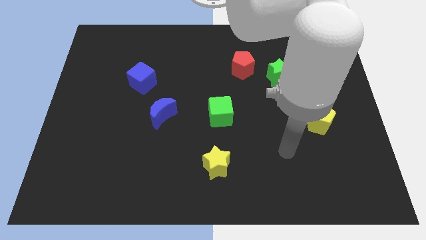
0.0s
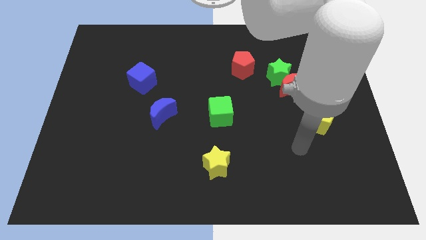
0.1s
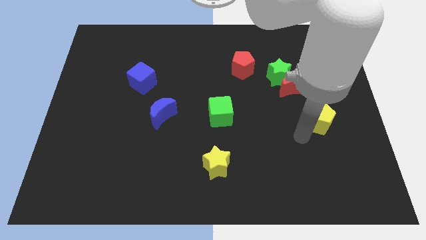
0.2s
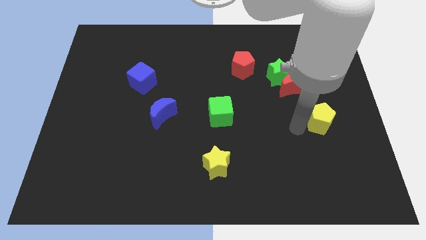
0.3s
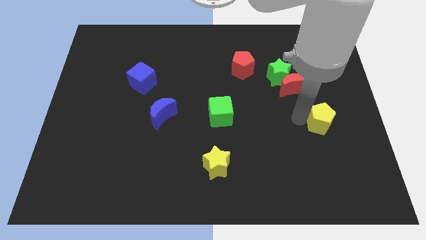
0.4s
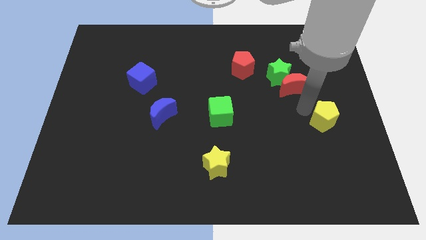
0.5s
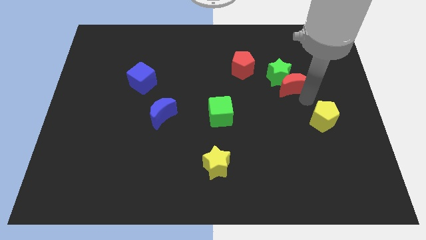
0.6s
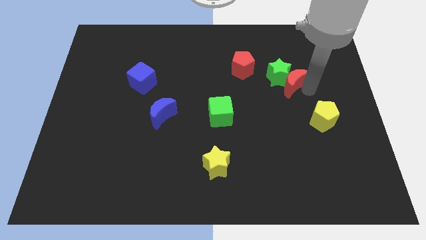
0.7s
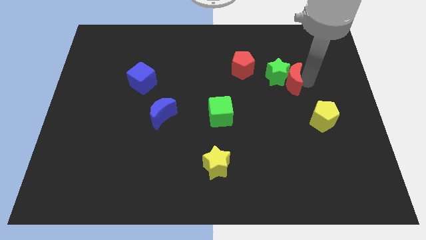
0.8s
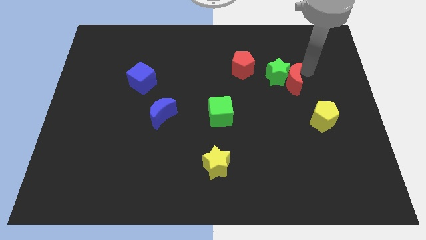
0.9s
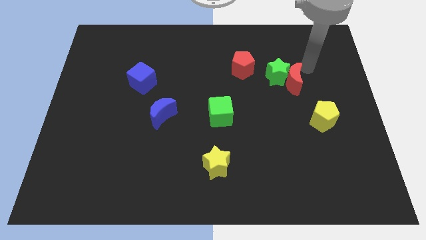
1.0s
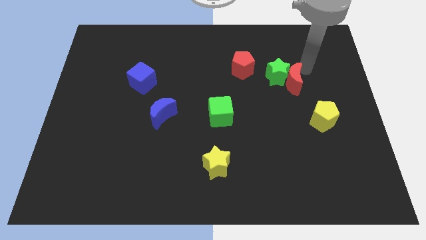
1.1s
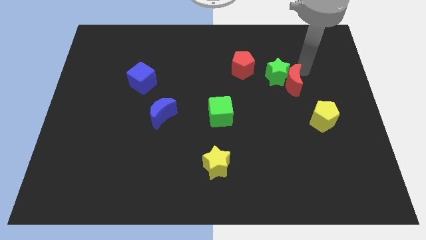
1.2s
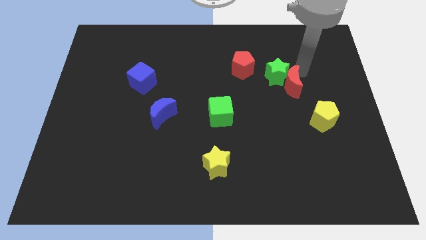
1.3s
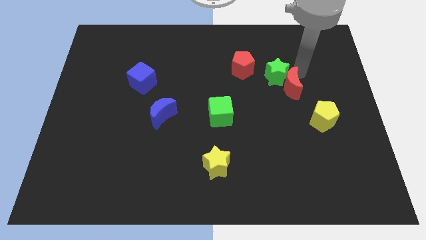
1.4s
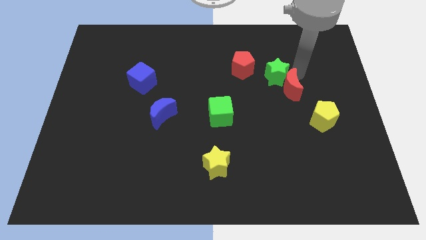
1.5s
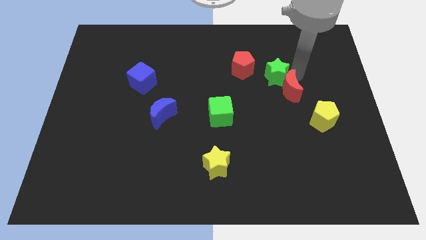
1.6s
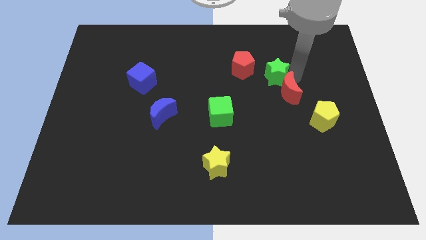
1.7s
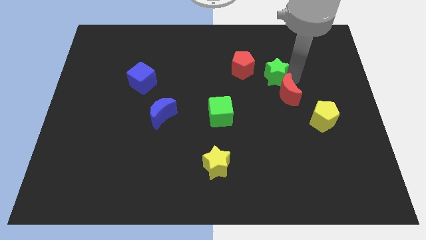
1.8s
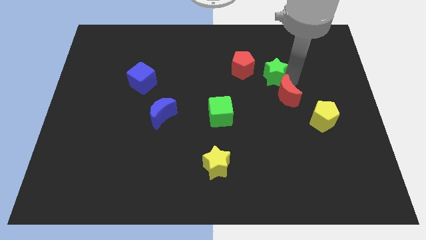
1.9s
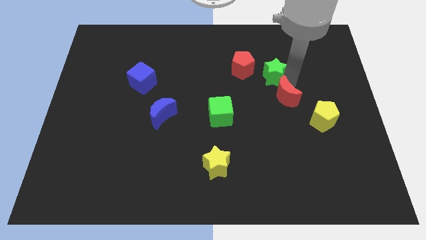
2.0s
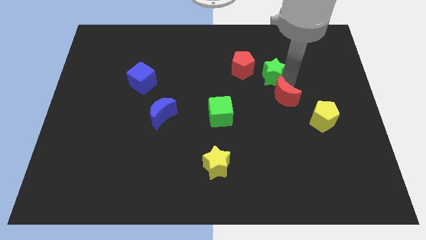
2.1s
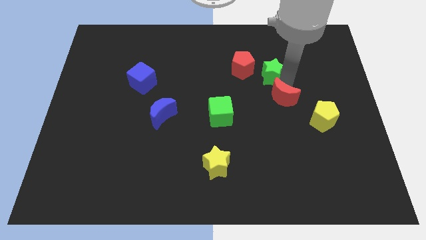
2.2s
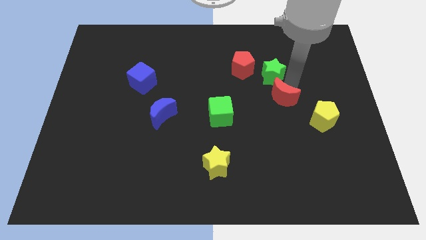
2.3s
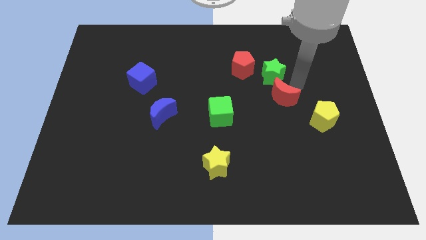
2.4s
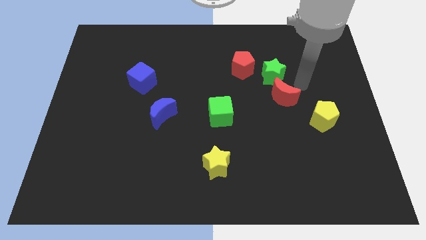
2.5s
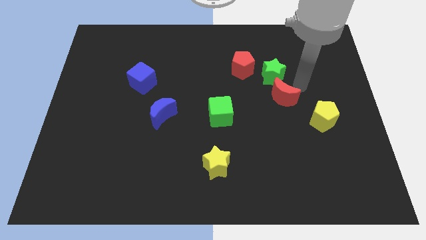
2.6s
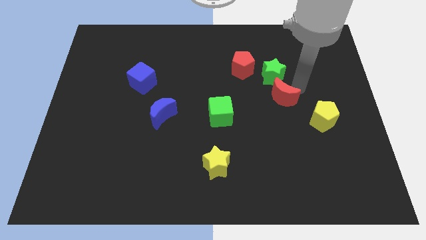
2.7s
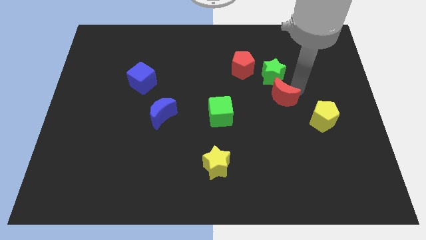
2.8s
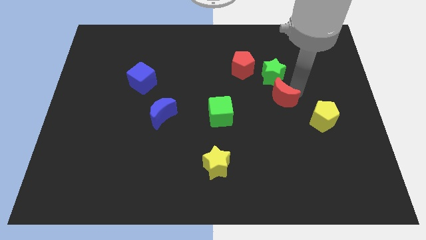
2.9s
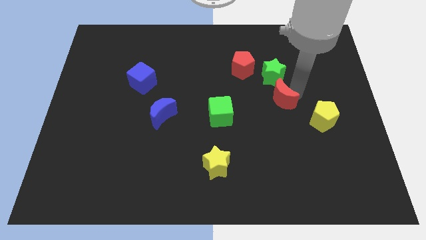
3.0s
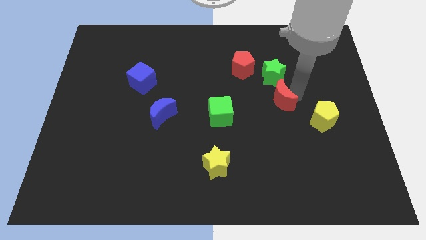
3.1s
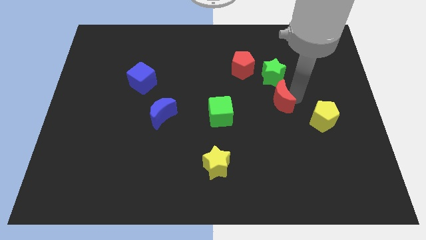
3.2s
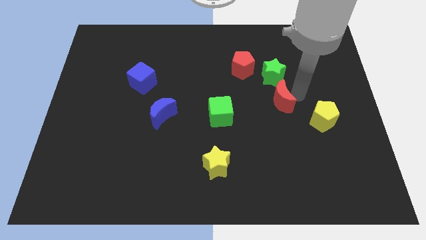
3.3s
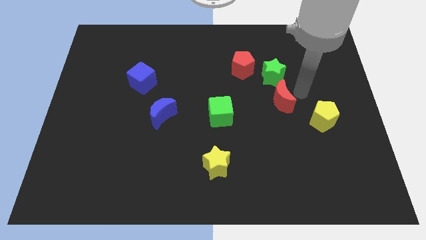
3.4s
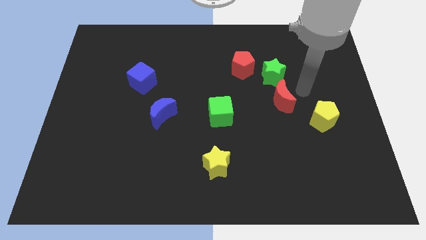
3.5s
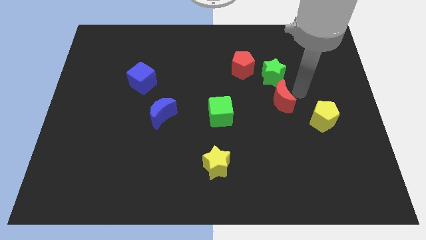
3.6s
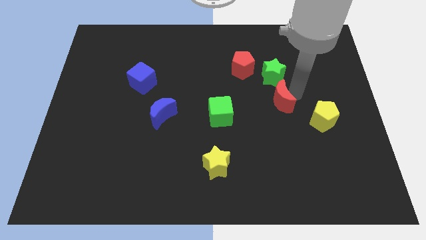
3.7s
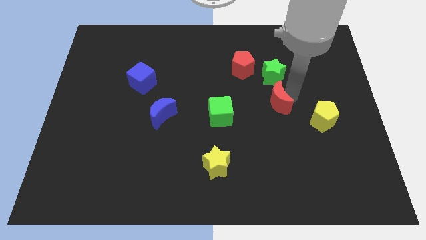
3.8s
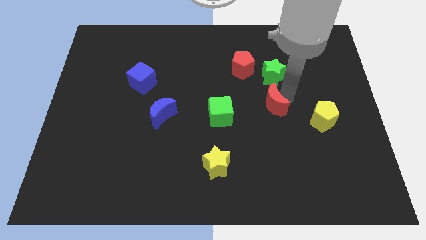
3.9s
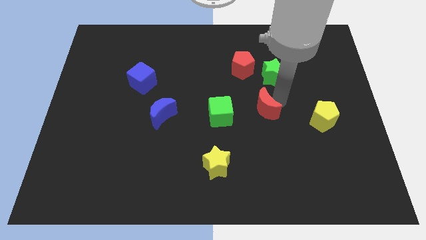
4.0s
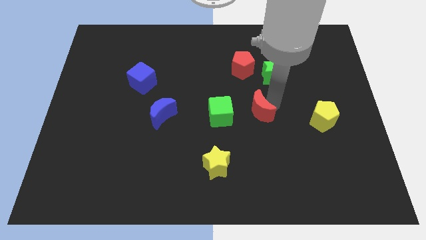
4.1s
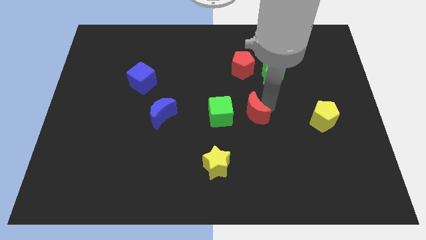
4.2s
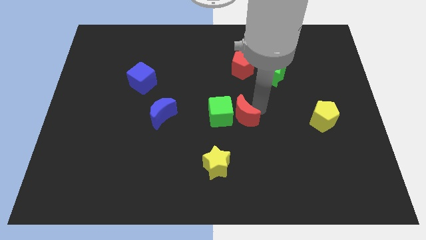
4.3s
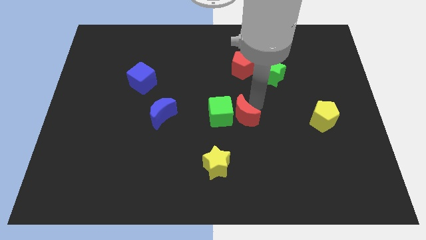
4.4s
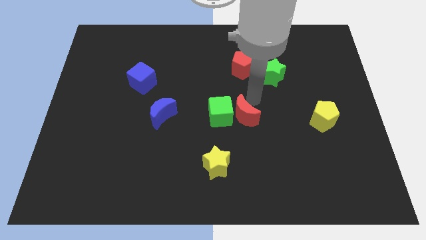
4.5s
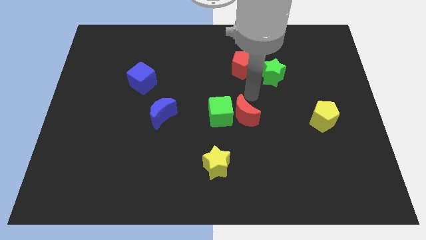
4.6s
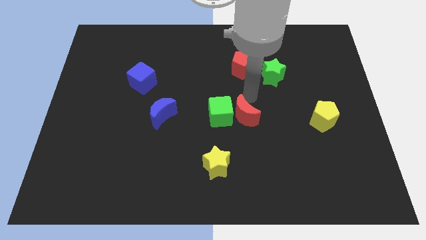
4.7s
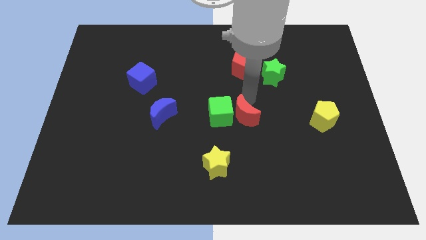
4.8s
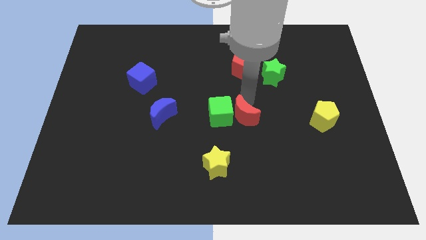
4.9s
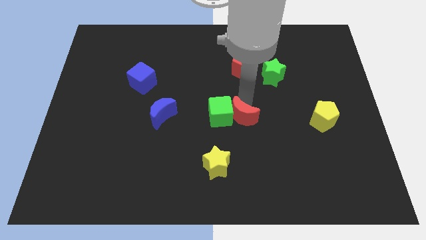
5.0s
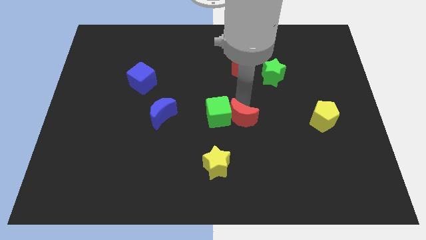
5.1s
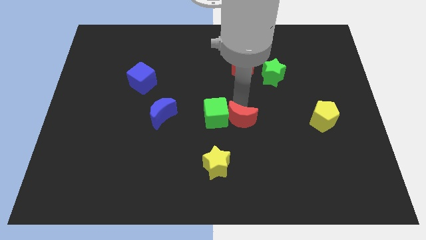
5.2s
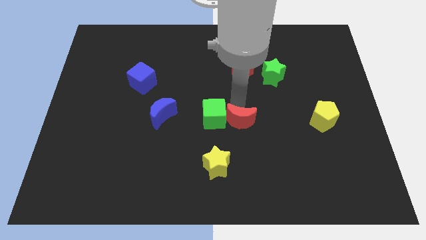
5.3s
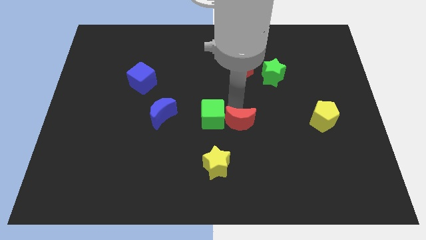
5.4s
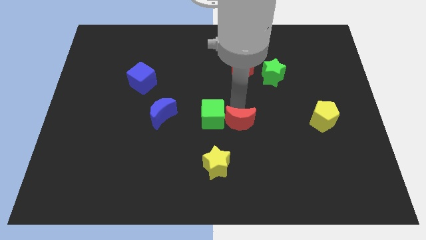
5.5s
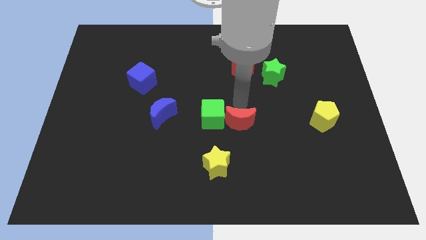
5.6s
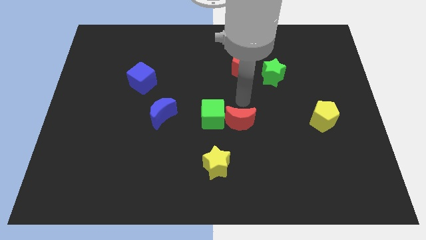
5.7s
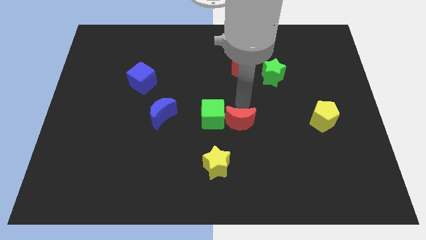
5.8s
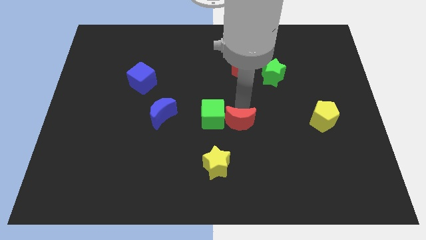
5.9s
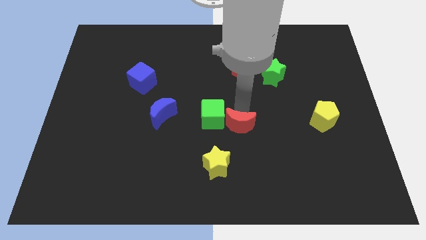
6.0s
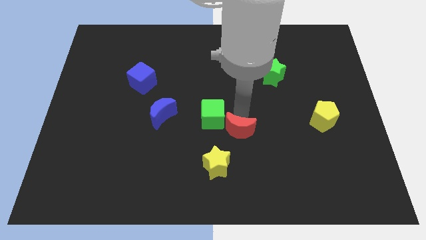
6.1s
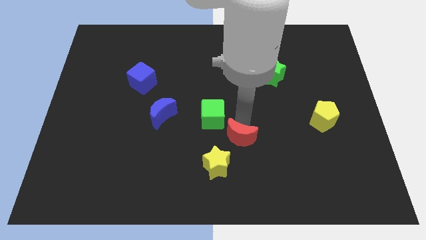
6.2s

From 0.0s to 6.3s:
push the red moon downwards and to the left diagonally

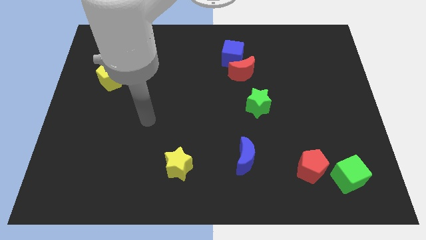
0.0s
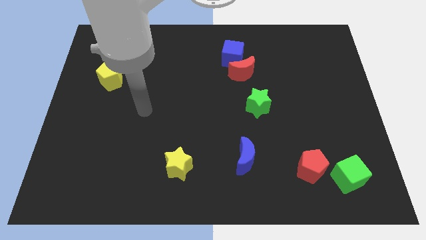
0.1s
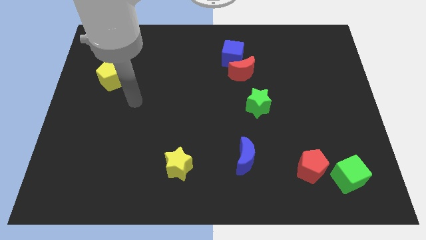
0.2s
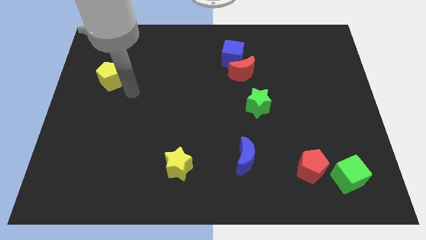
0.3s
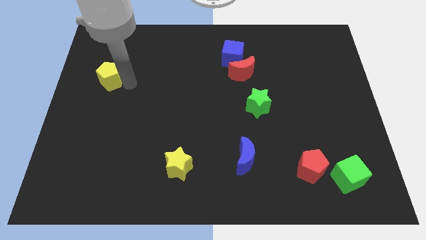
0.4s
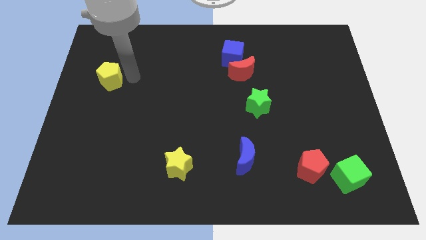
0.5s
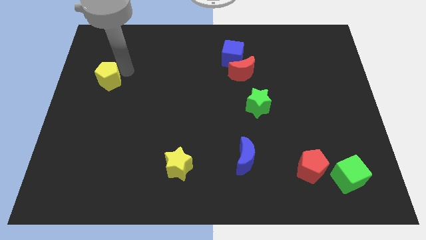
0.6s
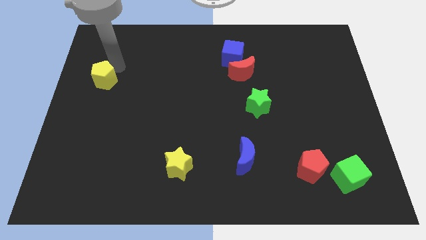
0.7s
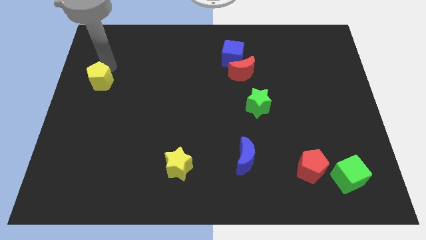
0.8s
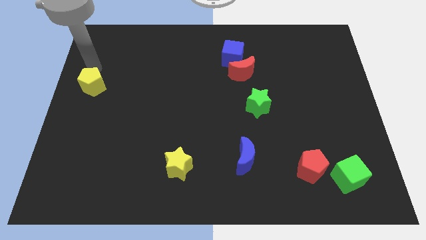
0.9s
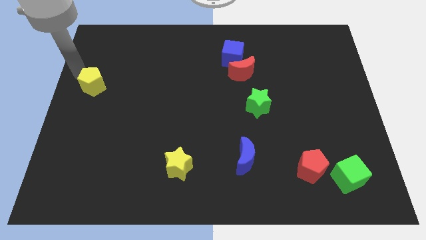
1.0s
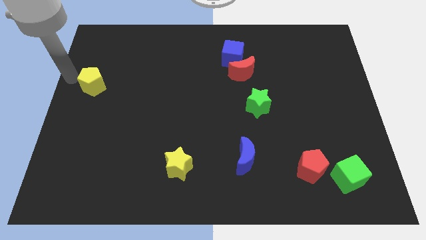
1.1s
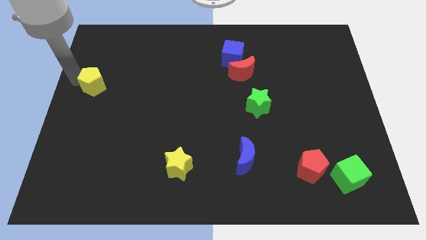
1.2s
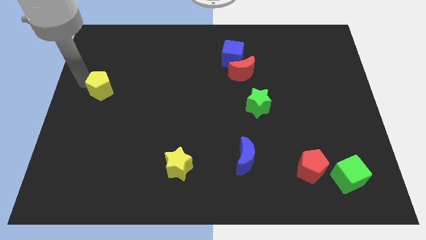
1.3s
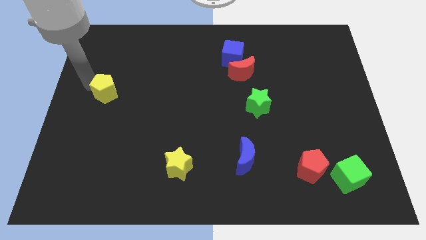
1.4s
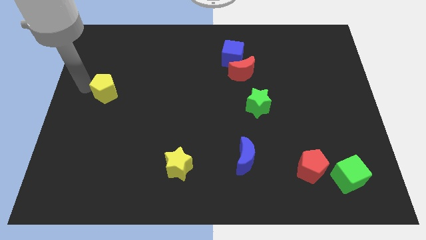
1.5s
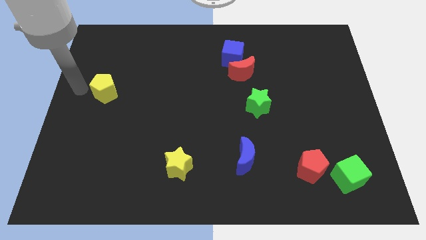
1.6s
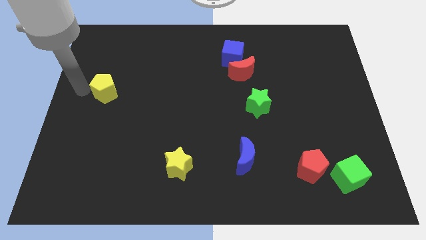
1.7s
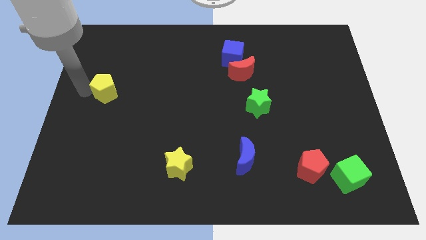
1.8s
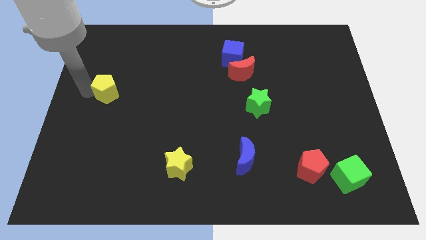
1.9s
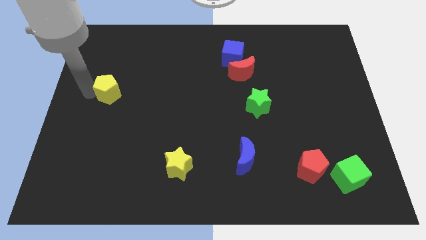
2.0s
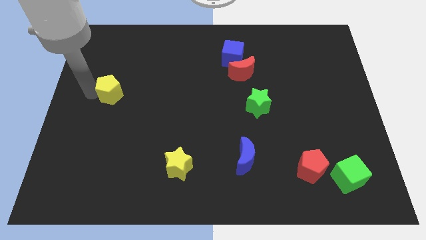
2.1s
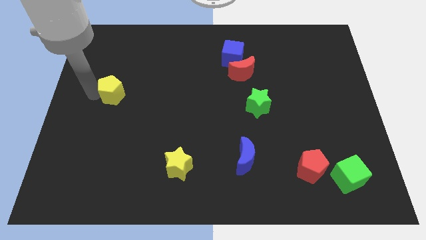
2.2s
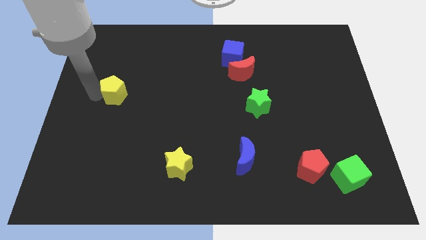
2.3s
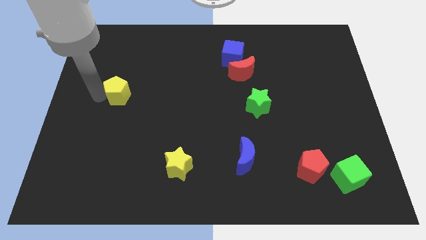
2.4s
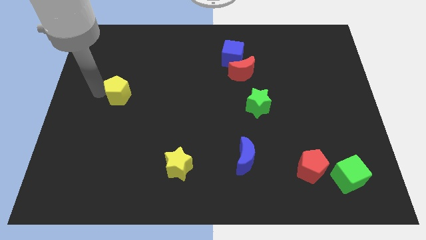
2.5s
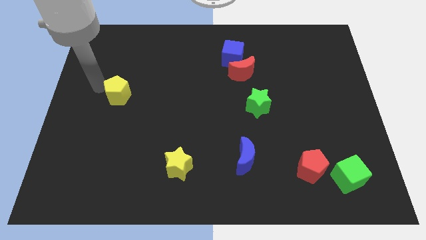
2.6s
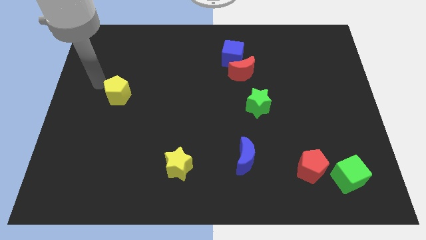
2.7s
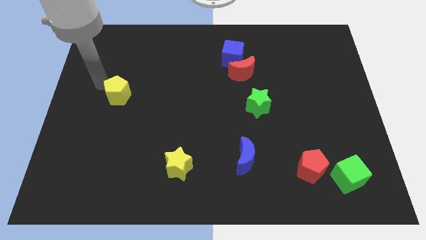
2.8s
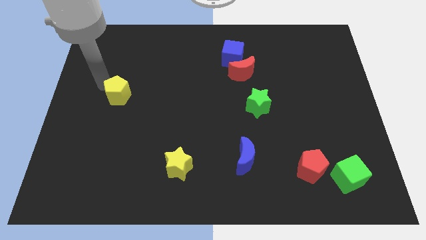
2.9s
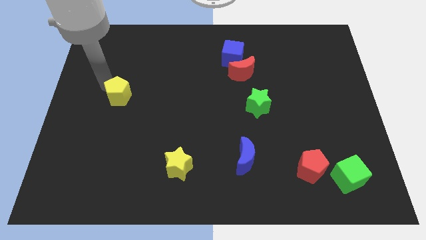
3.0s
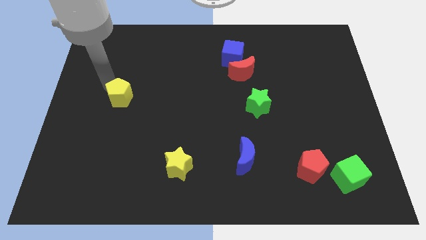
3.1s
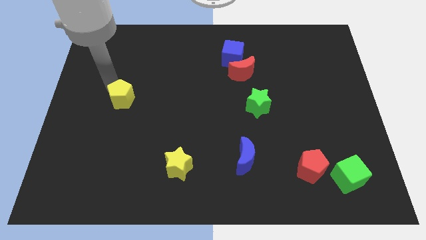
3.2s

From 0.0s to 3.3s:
slightly move the yellow pentagon diagonally down and right
